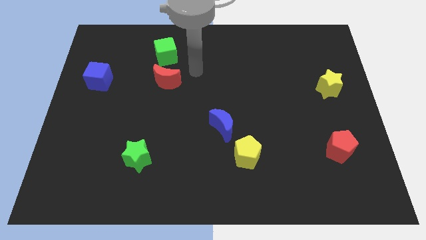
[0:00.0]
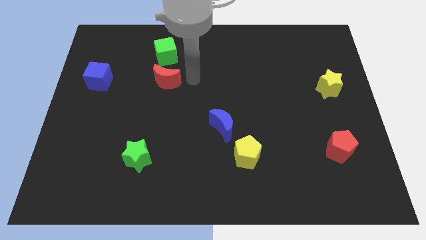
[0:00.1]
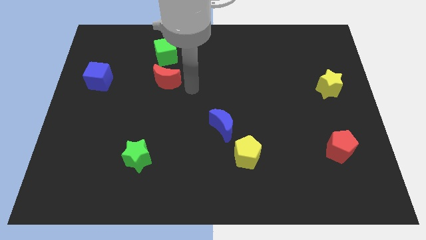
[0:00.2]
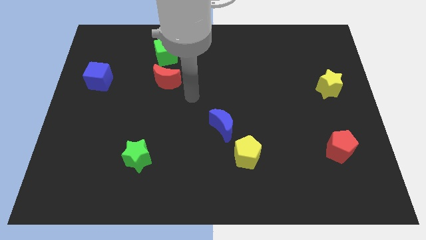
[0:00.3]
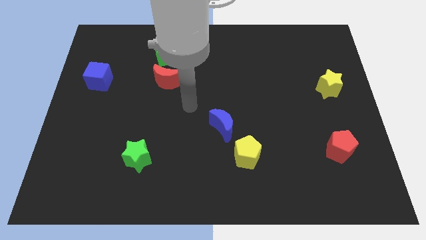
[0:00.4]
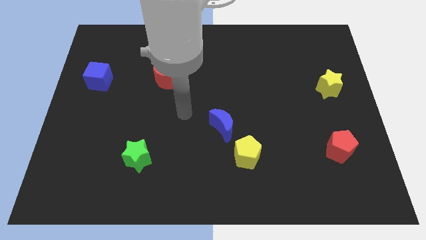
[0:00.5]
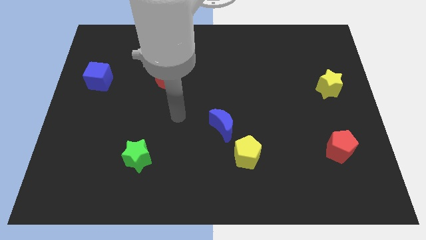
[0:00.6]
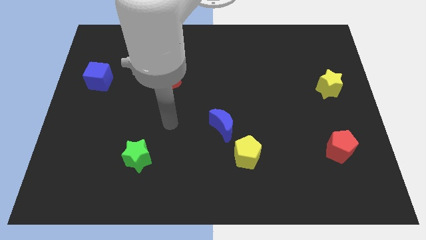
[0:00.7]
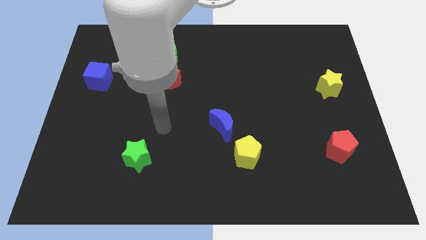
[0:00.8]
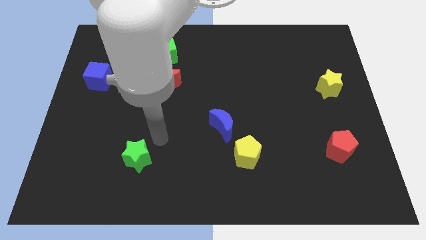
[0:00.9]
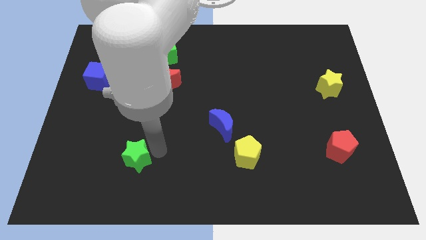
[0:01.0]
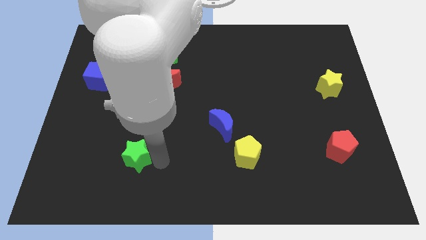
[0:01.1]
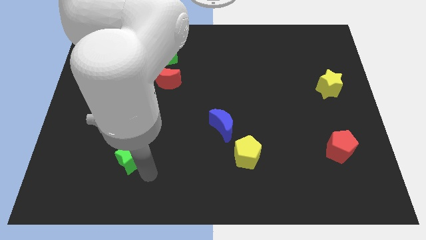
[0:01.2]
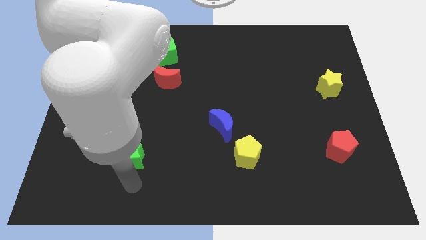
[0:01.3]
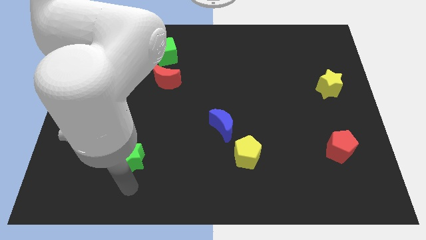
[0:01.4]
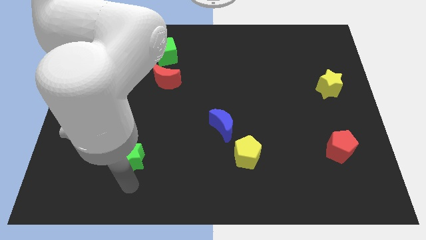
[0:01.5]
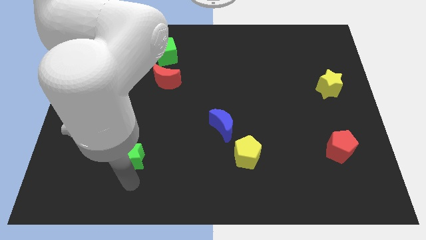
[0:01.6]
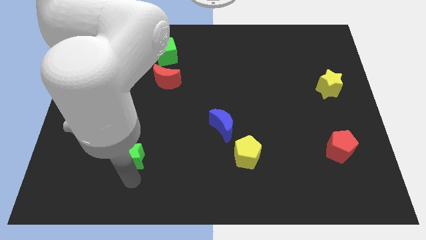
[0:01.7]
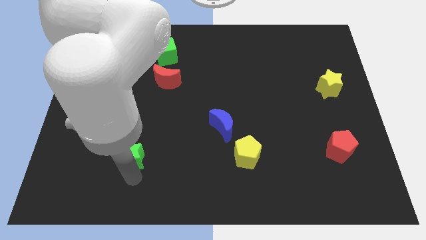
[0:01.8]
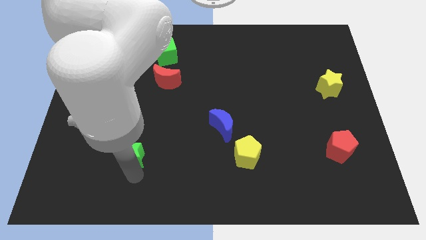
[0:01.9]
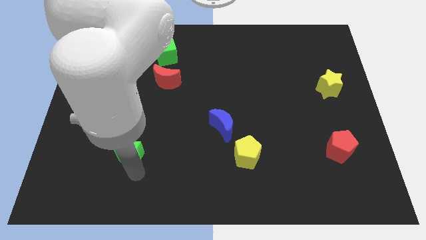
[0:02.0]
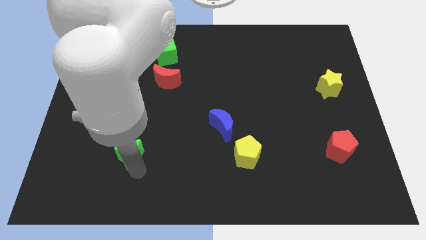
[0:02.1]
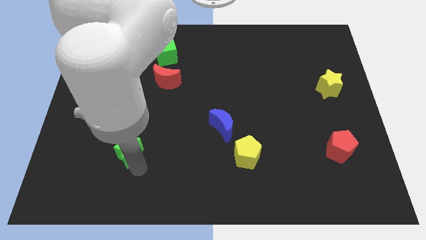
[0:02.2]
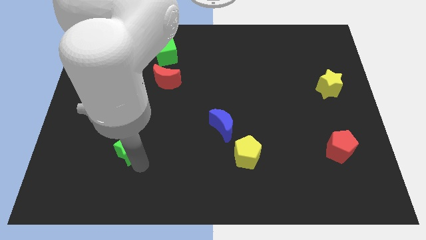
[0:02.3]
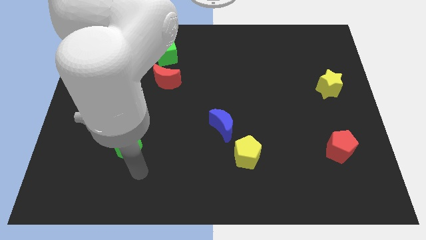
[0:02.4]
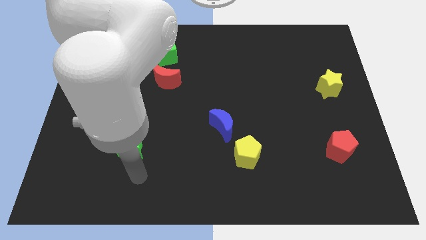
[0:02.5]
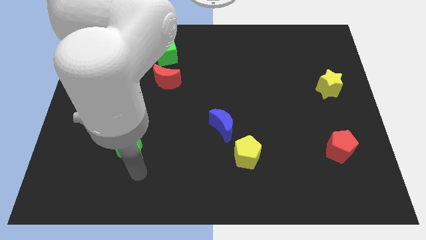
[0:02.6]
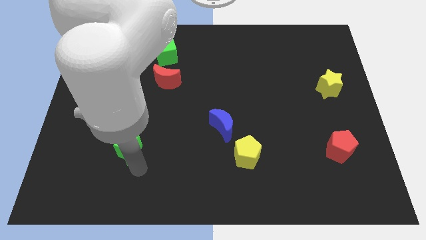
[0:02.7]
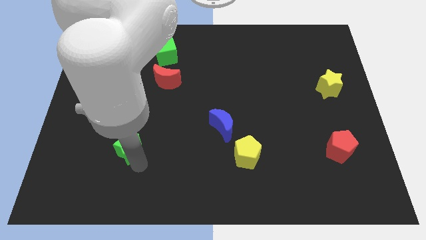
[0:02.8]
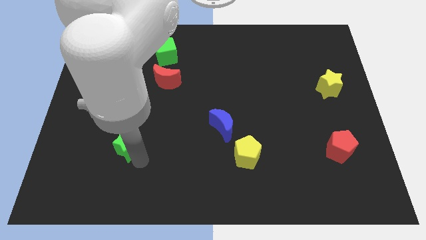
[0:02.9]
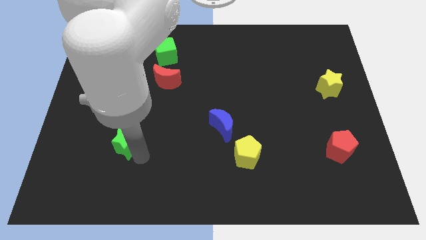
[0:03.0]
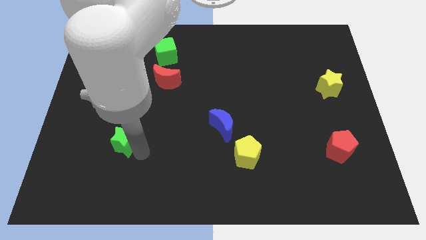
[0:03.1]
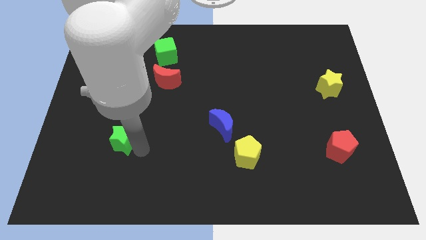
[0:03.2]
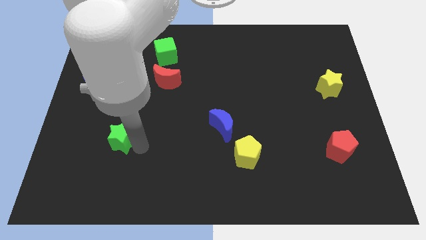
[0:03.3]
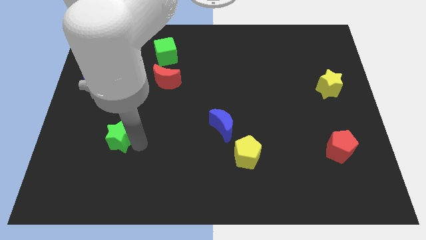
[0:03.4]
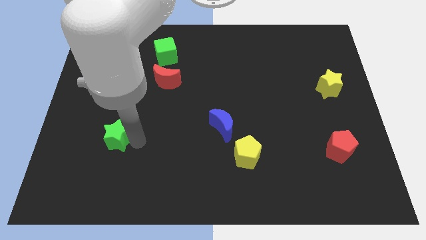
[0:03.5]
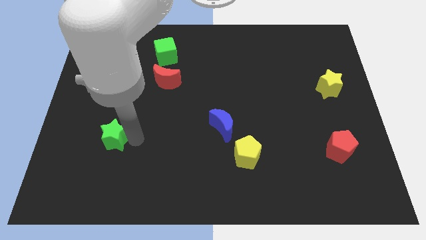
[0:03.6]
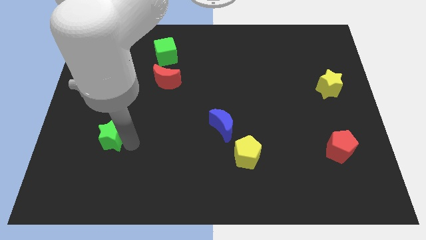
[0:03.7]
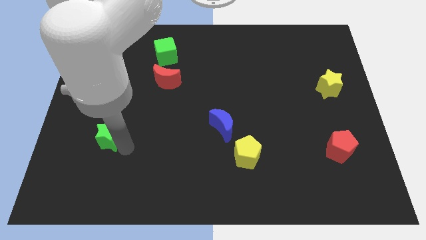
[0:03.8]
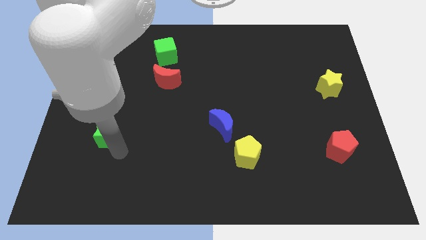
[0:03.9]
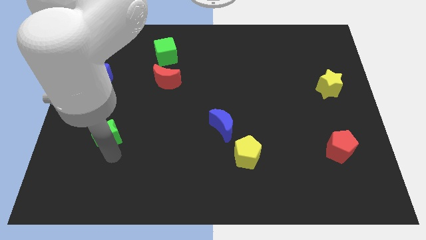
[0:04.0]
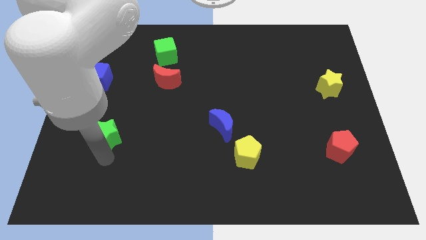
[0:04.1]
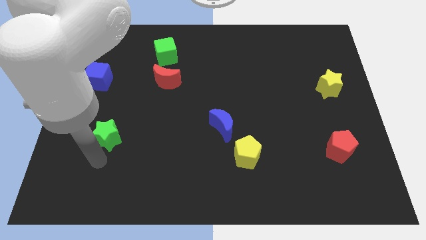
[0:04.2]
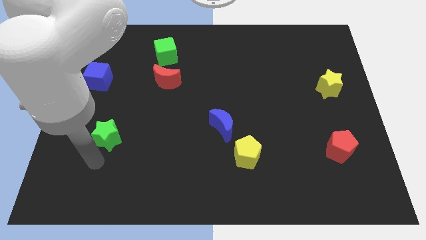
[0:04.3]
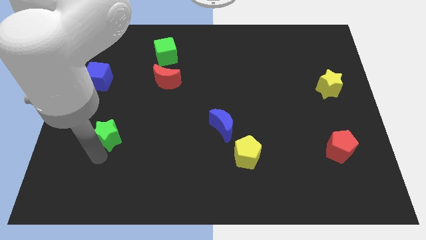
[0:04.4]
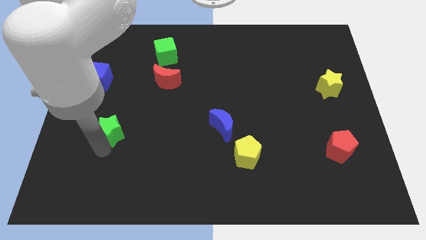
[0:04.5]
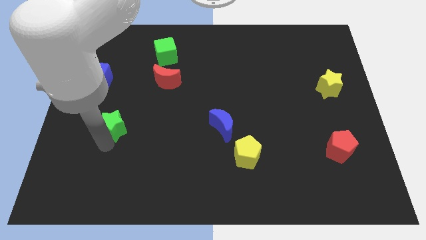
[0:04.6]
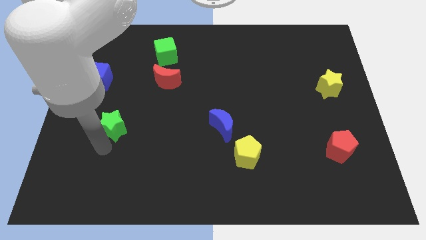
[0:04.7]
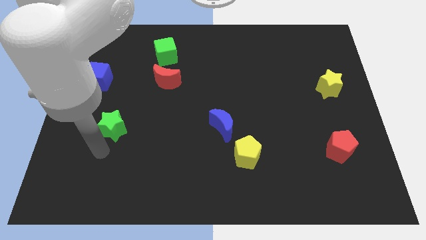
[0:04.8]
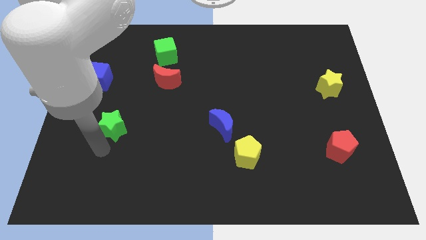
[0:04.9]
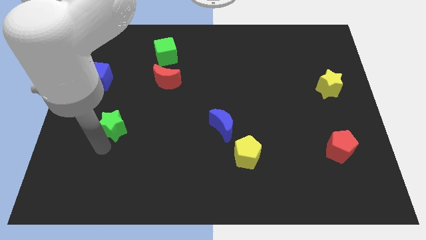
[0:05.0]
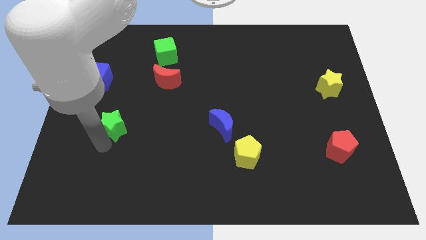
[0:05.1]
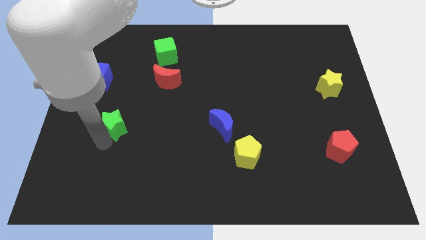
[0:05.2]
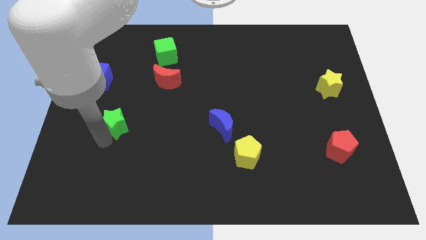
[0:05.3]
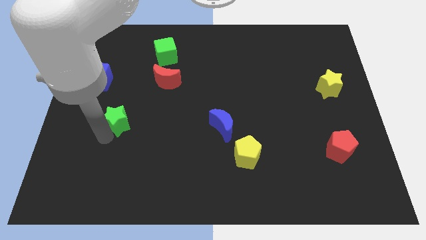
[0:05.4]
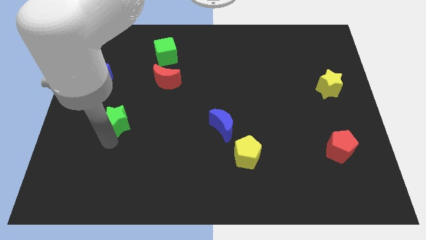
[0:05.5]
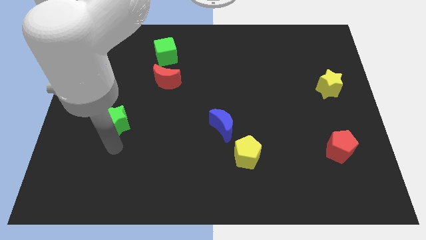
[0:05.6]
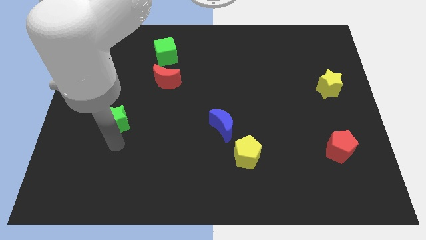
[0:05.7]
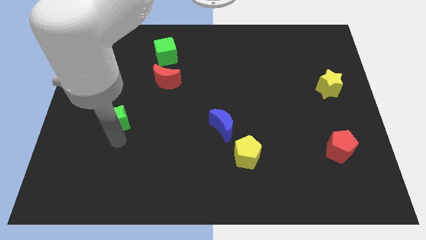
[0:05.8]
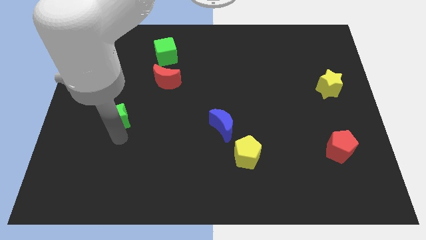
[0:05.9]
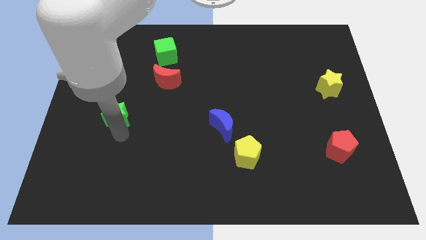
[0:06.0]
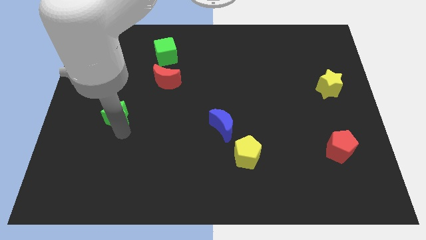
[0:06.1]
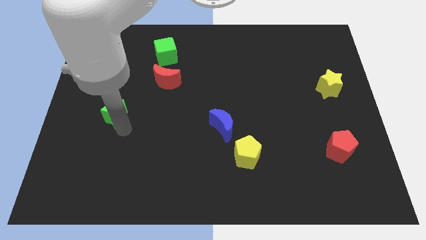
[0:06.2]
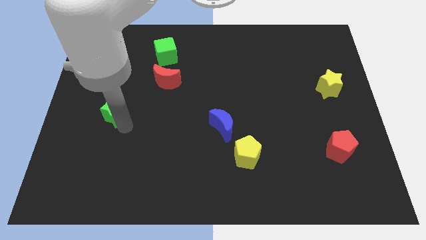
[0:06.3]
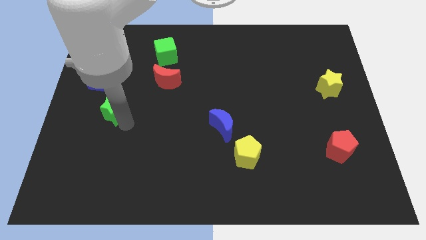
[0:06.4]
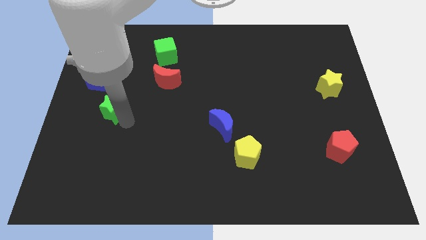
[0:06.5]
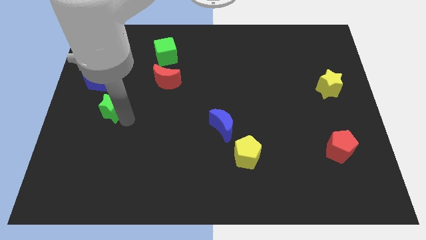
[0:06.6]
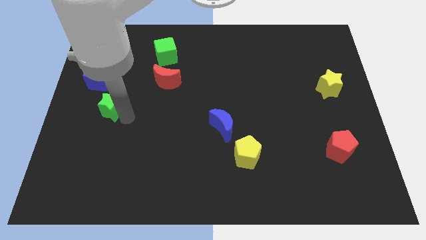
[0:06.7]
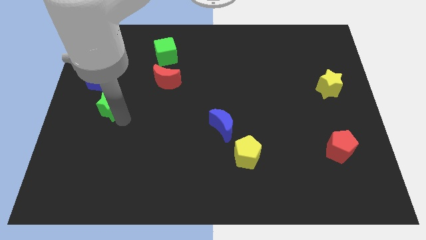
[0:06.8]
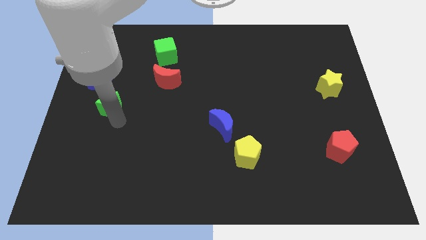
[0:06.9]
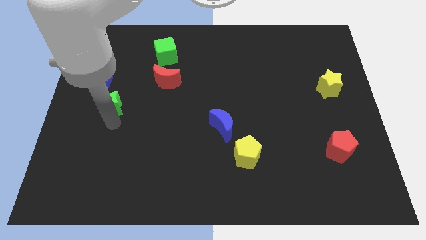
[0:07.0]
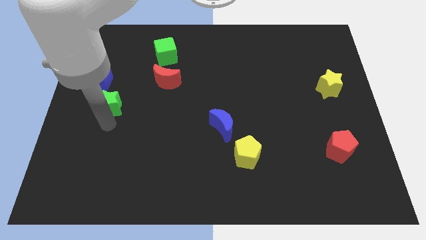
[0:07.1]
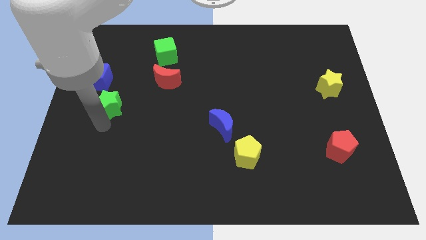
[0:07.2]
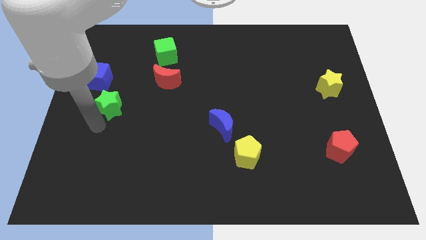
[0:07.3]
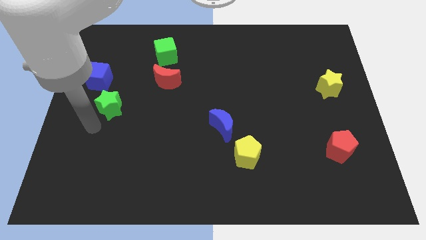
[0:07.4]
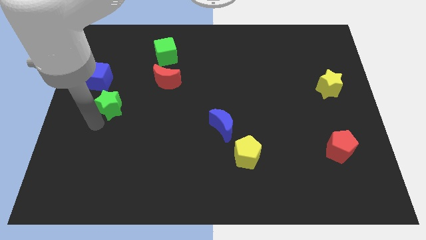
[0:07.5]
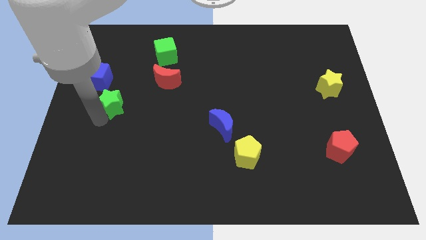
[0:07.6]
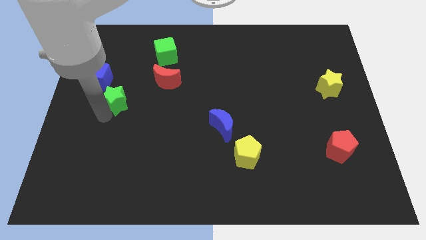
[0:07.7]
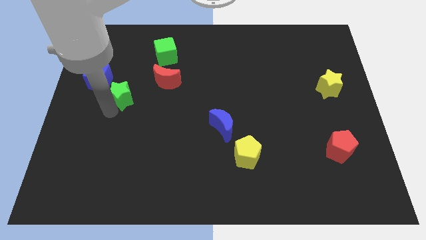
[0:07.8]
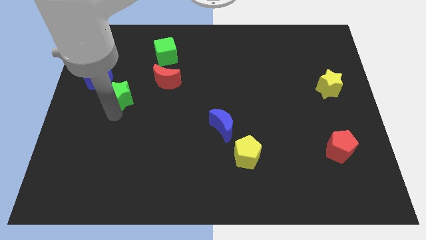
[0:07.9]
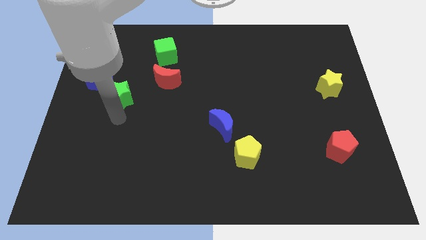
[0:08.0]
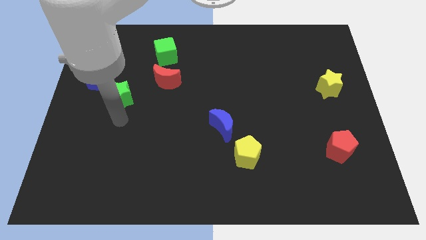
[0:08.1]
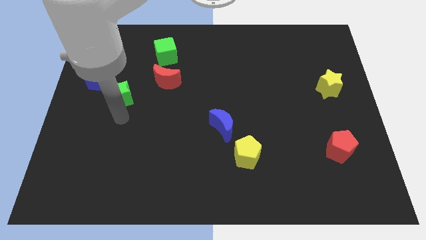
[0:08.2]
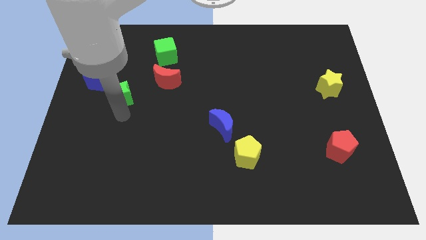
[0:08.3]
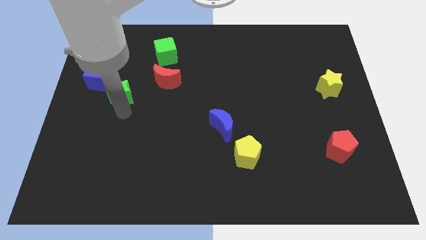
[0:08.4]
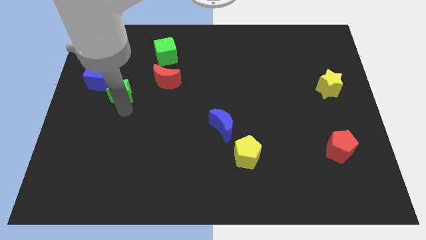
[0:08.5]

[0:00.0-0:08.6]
move the green star just left of the red moon
